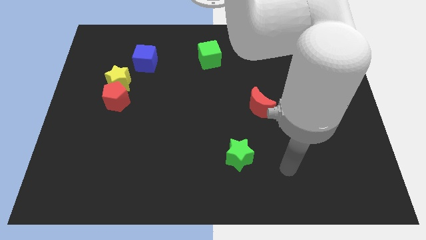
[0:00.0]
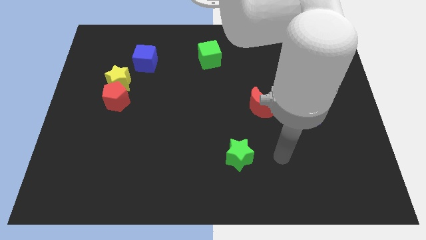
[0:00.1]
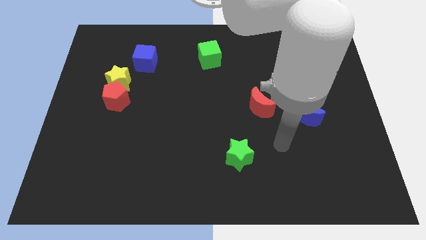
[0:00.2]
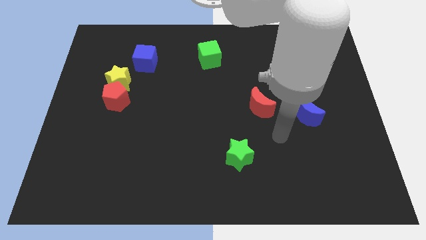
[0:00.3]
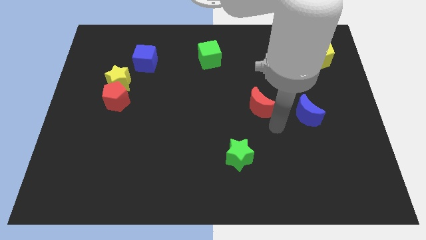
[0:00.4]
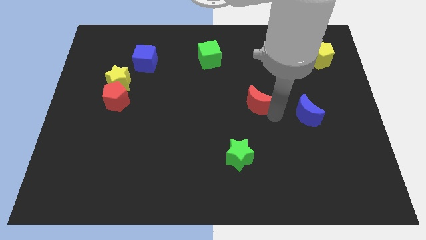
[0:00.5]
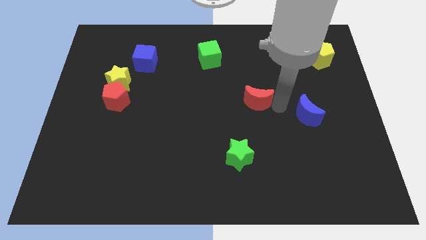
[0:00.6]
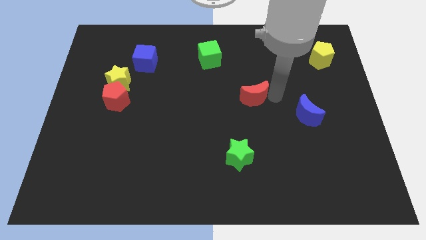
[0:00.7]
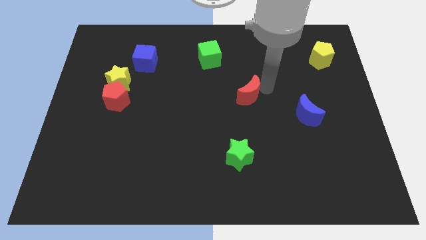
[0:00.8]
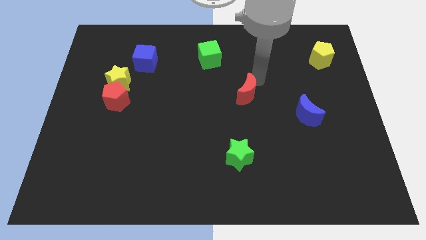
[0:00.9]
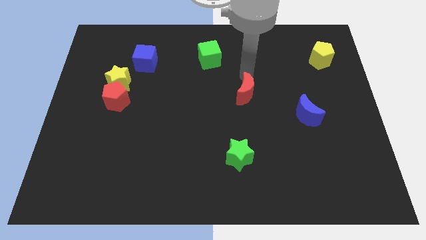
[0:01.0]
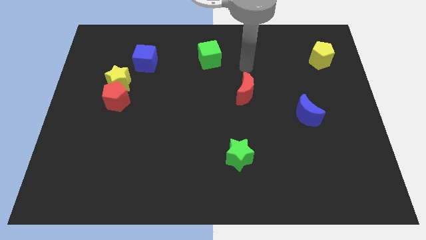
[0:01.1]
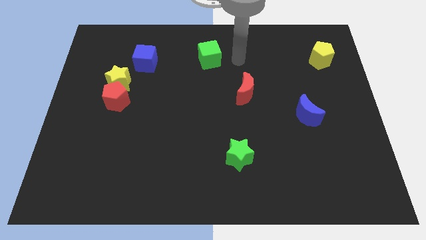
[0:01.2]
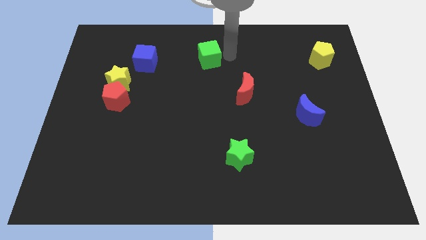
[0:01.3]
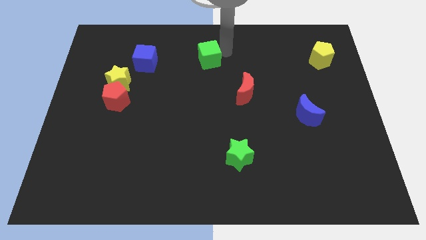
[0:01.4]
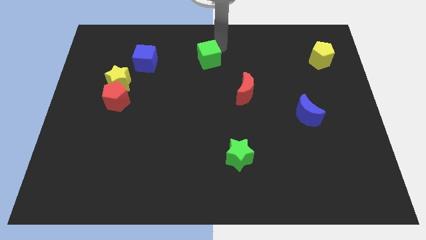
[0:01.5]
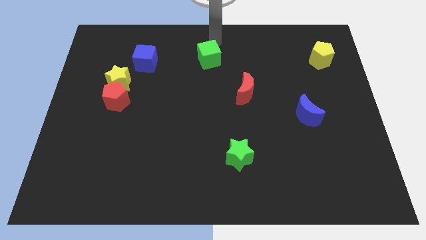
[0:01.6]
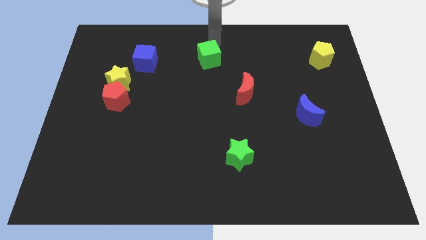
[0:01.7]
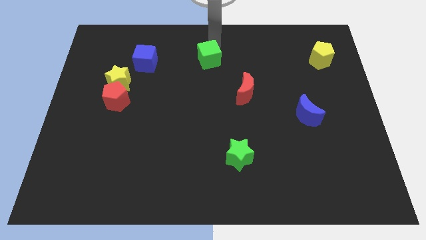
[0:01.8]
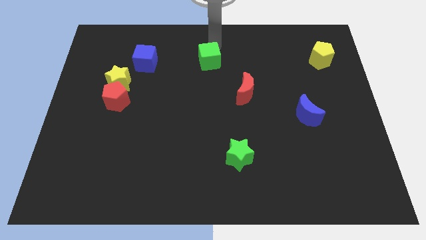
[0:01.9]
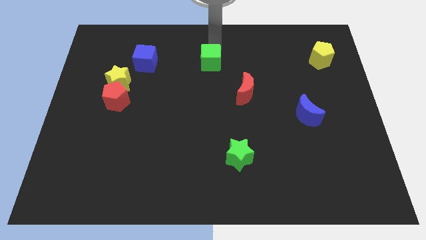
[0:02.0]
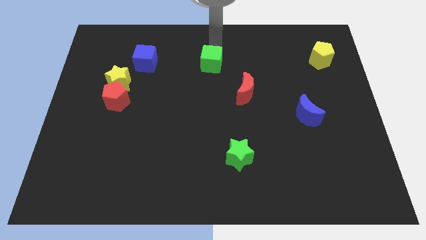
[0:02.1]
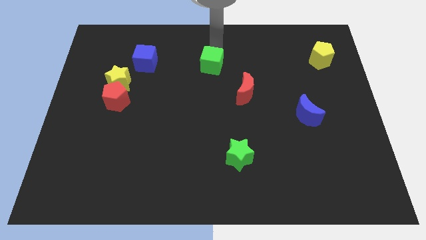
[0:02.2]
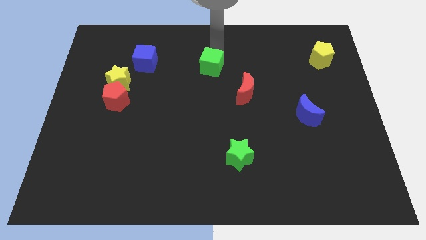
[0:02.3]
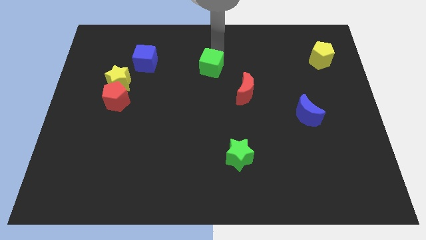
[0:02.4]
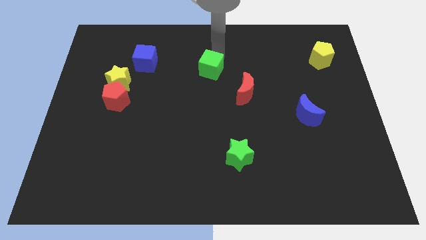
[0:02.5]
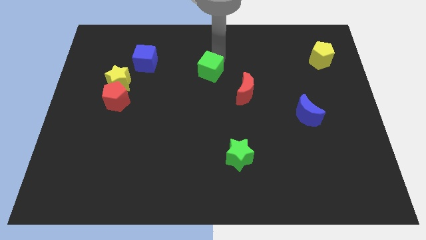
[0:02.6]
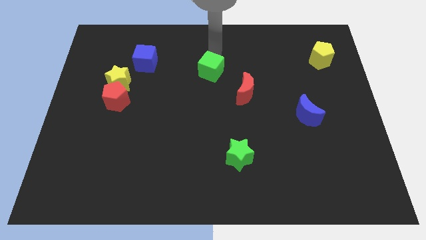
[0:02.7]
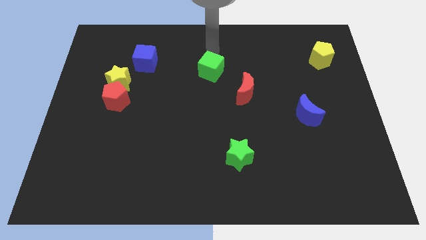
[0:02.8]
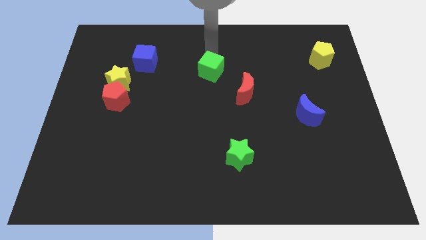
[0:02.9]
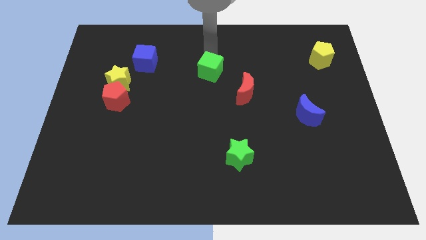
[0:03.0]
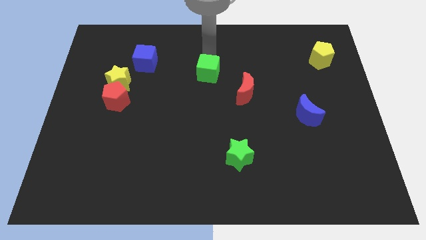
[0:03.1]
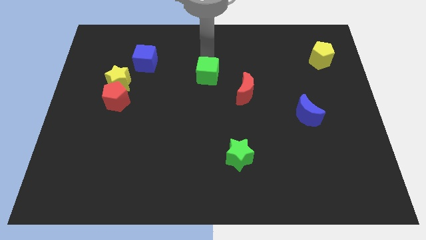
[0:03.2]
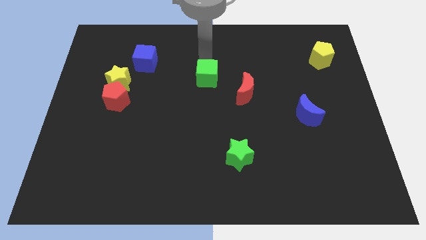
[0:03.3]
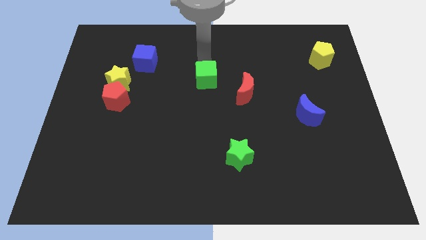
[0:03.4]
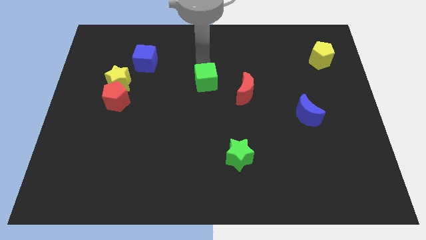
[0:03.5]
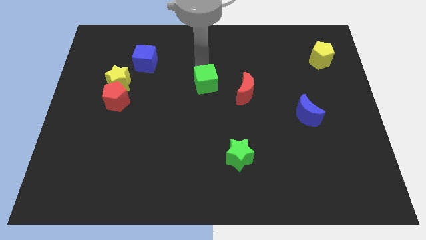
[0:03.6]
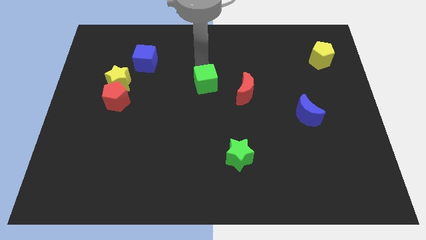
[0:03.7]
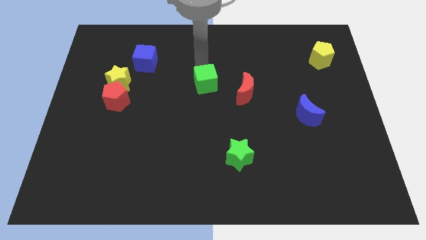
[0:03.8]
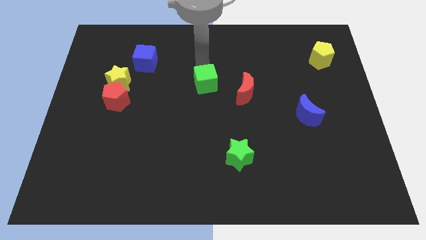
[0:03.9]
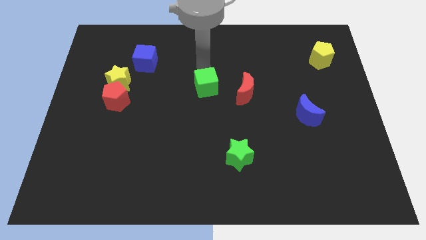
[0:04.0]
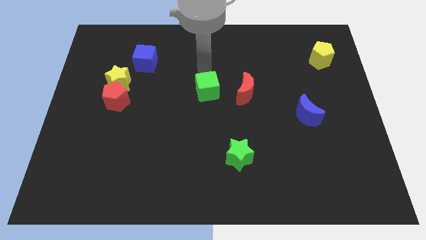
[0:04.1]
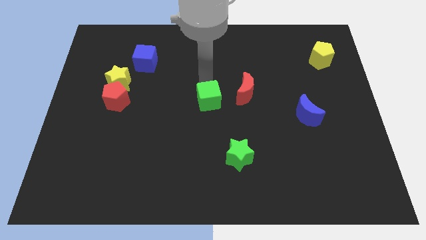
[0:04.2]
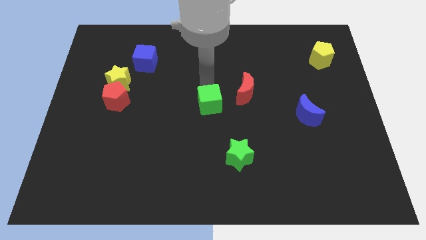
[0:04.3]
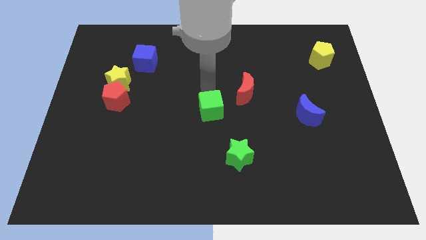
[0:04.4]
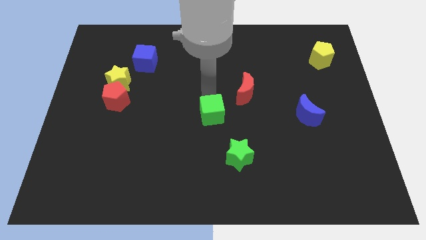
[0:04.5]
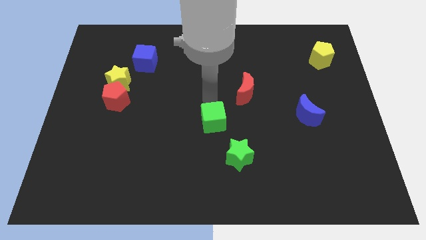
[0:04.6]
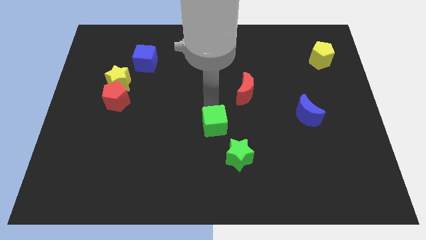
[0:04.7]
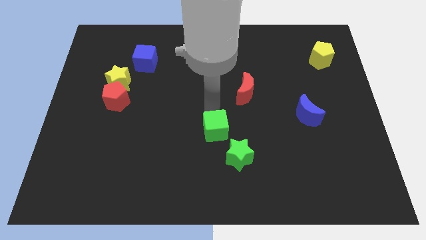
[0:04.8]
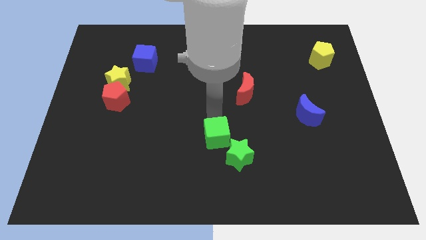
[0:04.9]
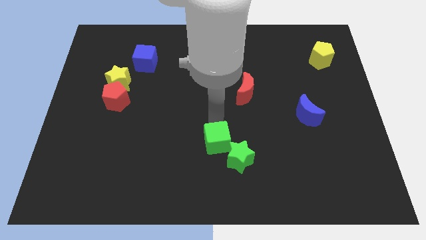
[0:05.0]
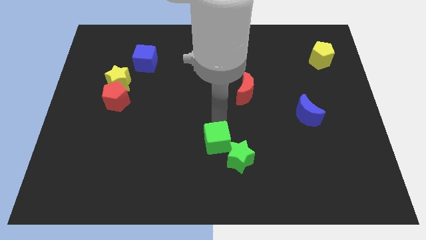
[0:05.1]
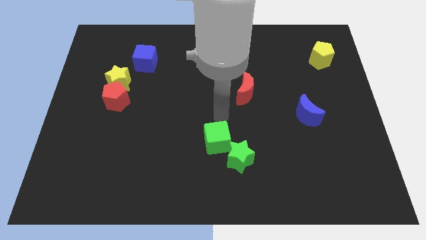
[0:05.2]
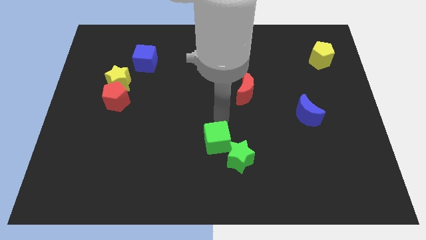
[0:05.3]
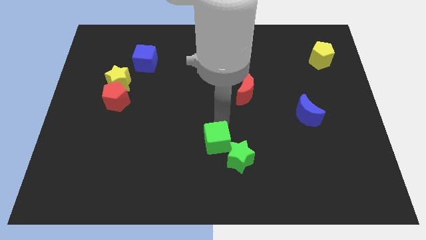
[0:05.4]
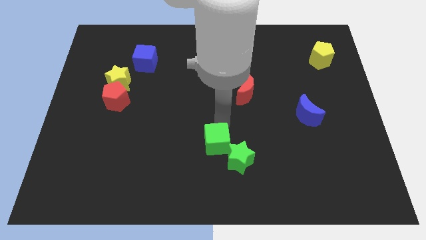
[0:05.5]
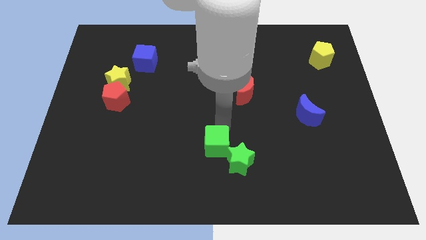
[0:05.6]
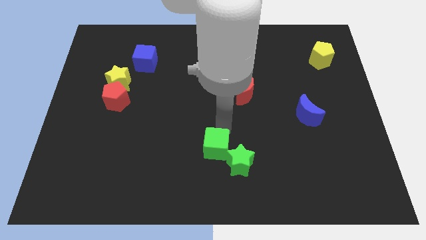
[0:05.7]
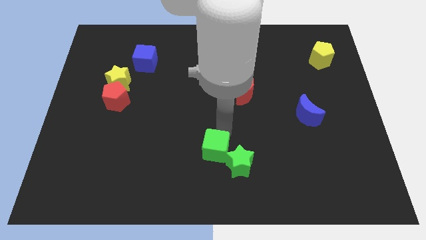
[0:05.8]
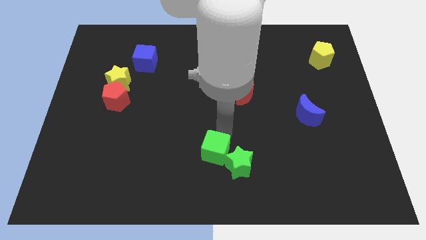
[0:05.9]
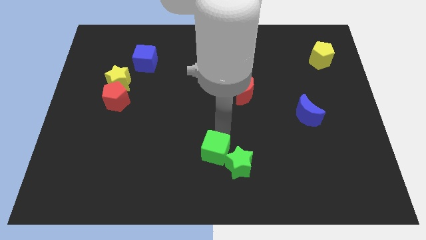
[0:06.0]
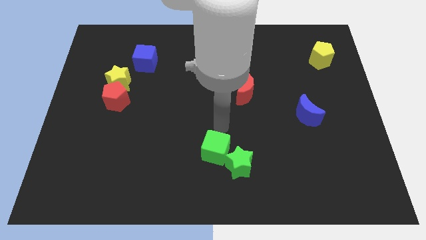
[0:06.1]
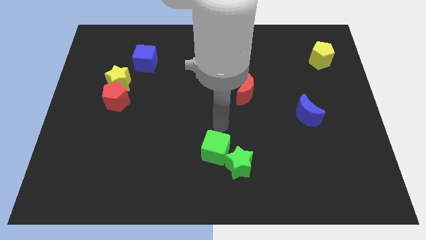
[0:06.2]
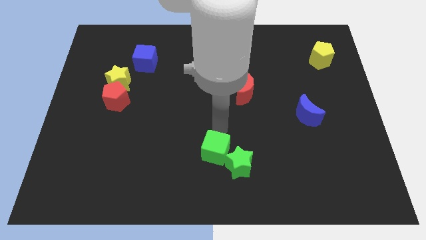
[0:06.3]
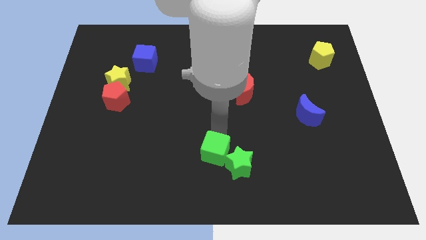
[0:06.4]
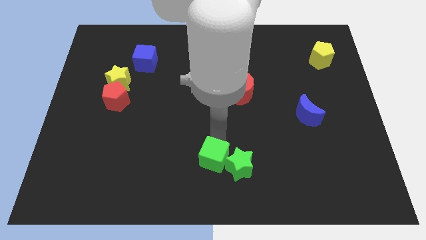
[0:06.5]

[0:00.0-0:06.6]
put the green cube to the bottom side
